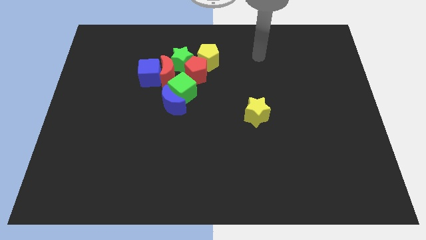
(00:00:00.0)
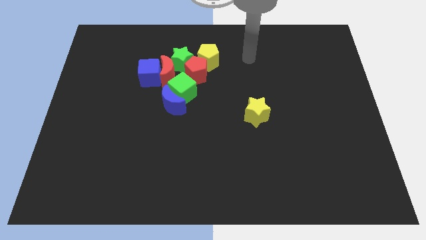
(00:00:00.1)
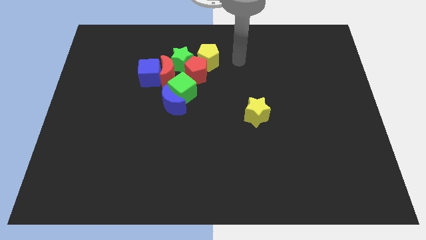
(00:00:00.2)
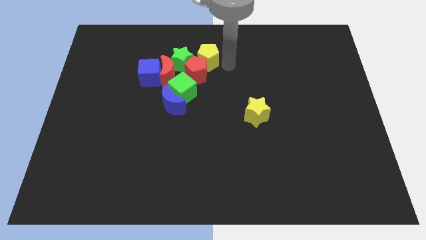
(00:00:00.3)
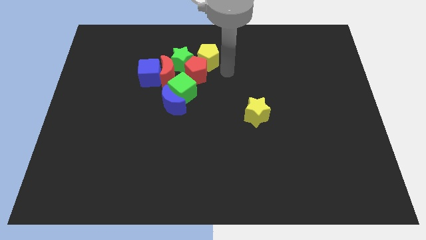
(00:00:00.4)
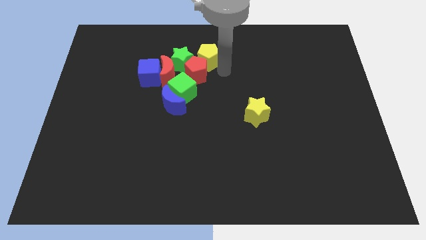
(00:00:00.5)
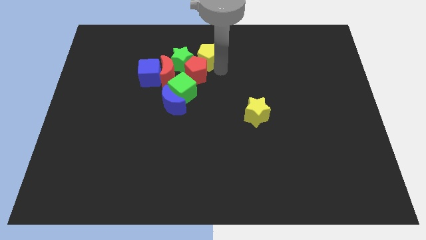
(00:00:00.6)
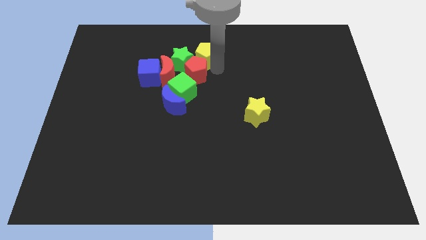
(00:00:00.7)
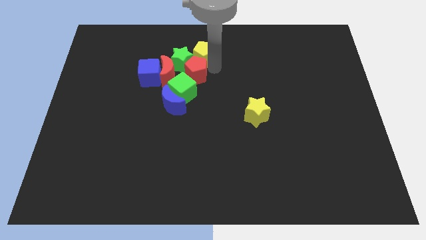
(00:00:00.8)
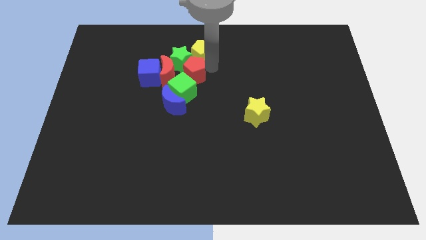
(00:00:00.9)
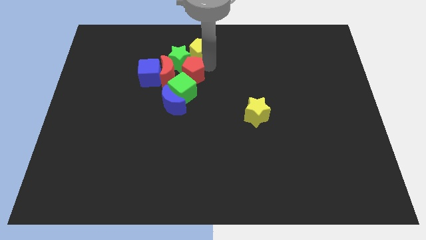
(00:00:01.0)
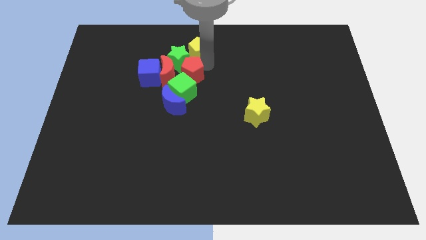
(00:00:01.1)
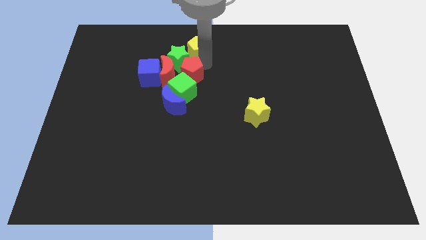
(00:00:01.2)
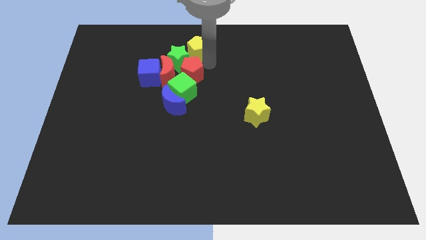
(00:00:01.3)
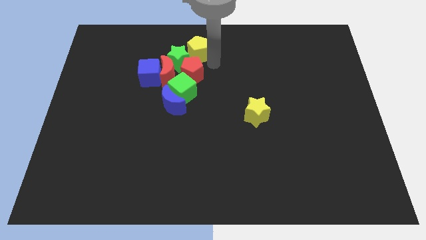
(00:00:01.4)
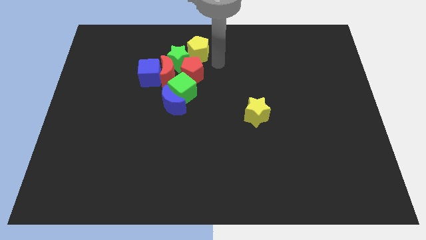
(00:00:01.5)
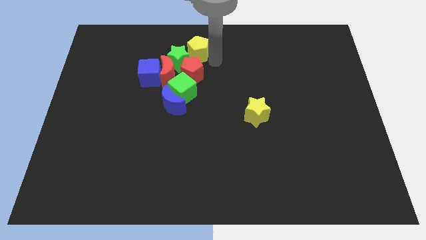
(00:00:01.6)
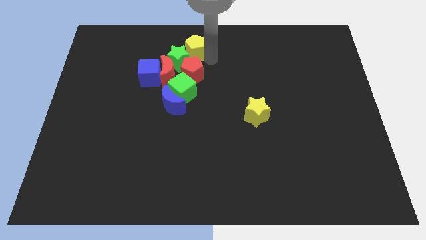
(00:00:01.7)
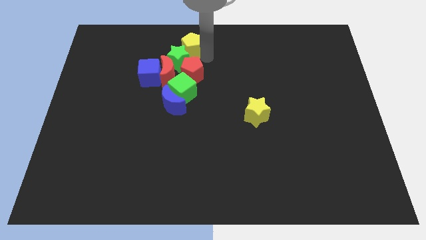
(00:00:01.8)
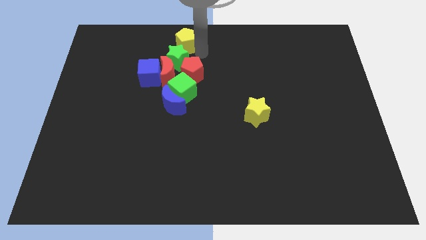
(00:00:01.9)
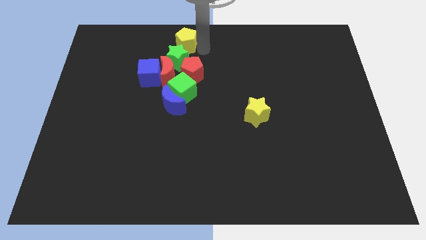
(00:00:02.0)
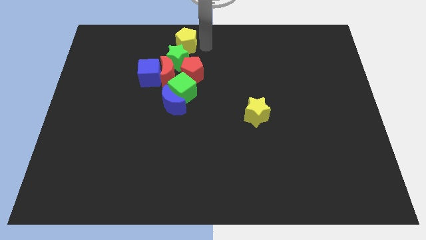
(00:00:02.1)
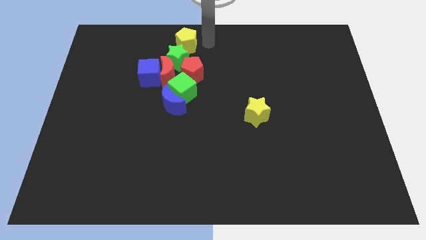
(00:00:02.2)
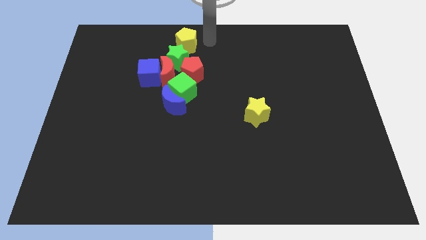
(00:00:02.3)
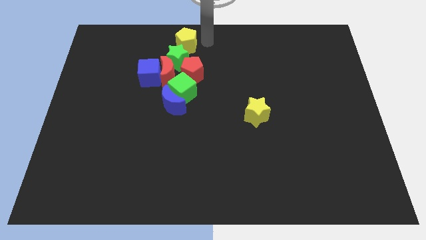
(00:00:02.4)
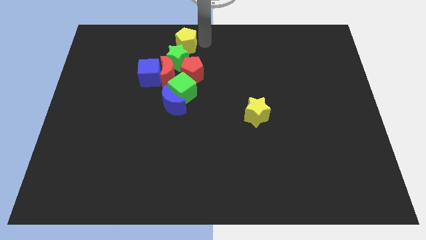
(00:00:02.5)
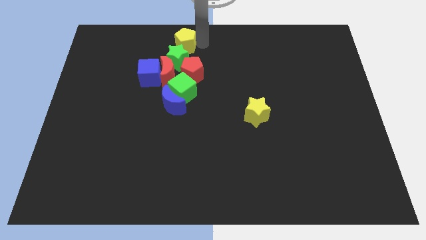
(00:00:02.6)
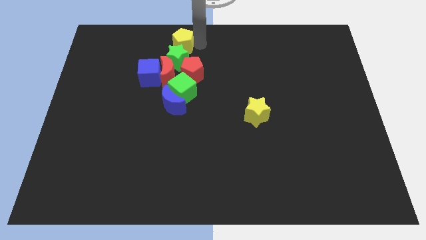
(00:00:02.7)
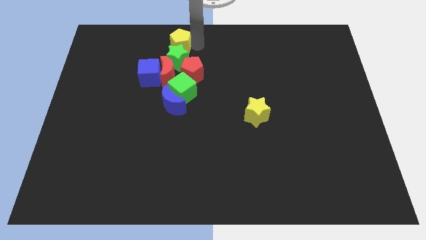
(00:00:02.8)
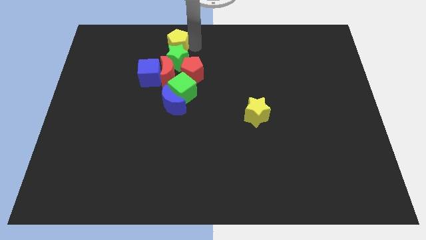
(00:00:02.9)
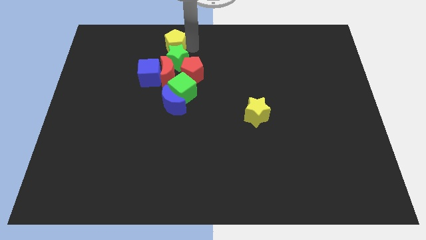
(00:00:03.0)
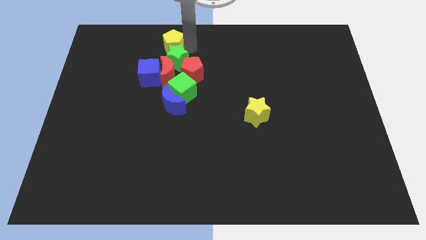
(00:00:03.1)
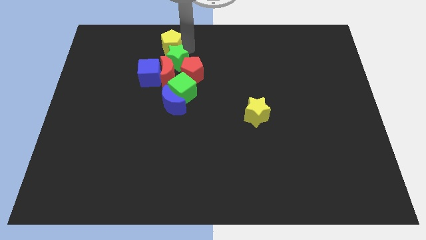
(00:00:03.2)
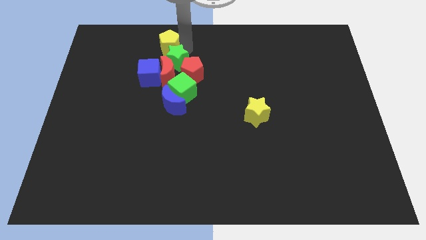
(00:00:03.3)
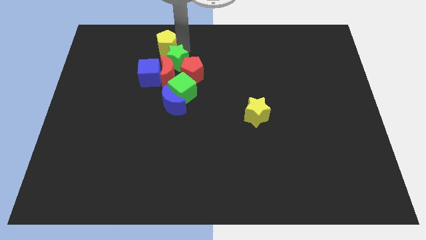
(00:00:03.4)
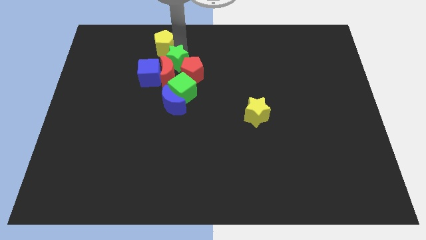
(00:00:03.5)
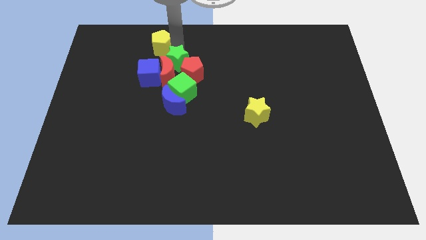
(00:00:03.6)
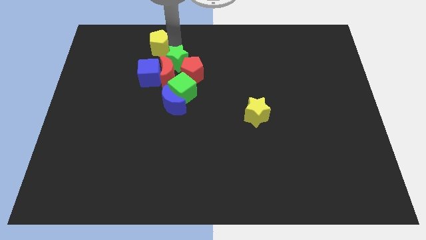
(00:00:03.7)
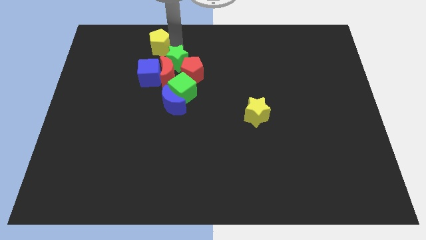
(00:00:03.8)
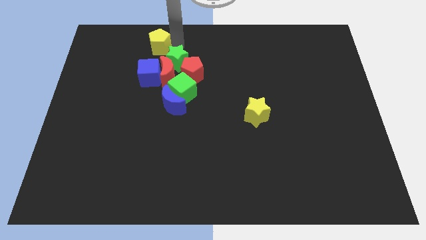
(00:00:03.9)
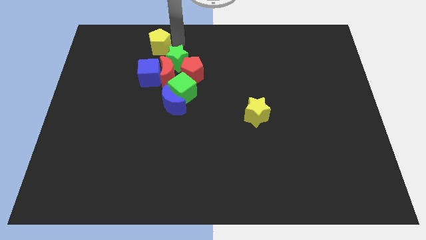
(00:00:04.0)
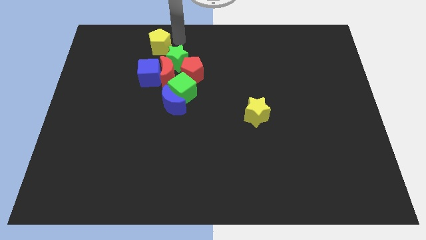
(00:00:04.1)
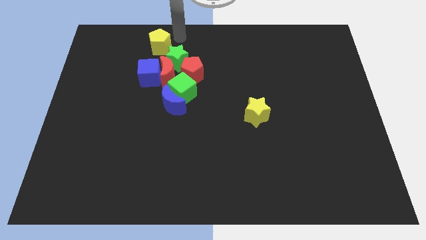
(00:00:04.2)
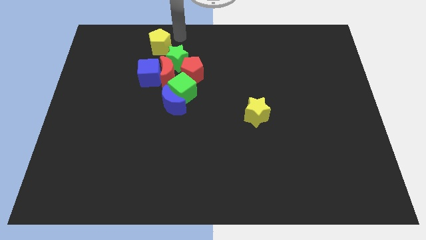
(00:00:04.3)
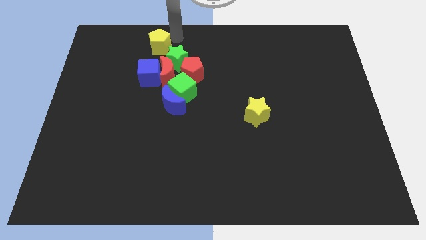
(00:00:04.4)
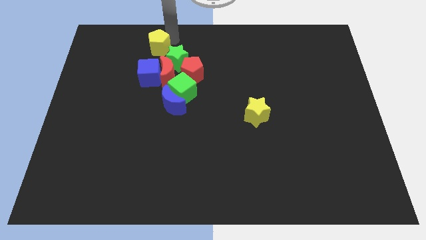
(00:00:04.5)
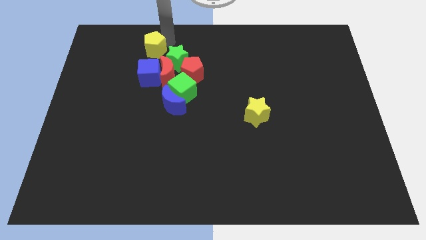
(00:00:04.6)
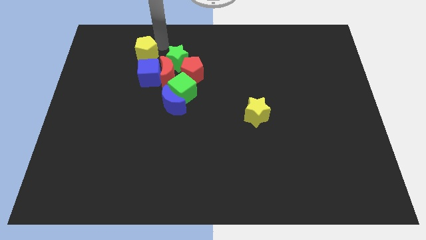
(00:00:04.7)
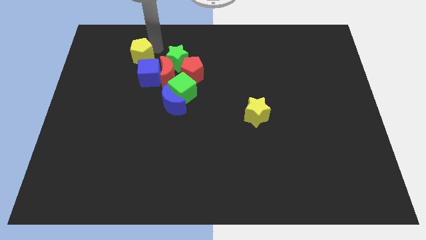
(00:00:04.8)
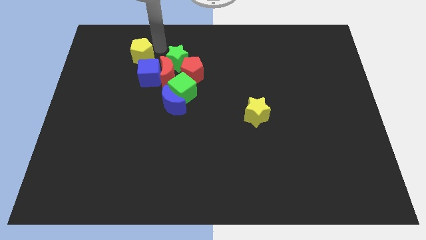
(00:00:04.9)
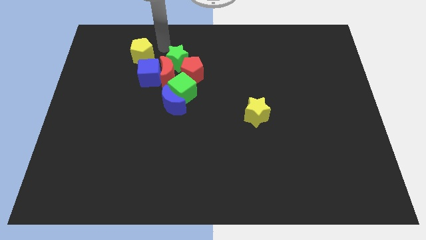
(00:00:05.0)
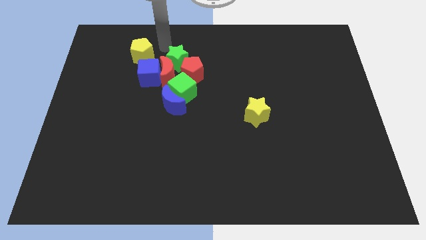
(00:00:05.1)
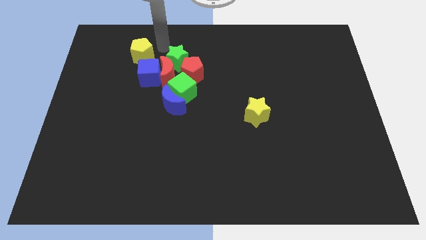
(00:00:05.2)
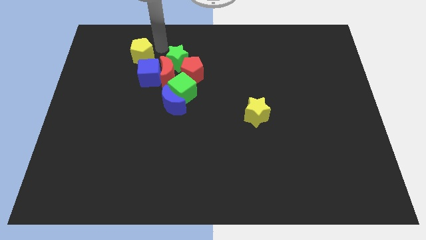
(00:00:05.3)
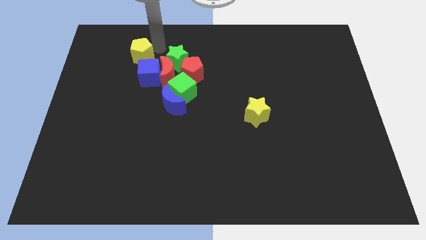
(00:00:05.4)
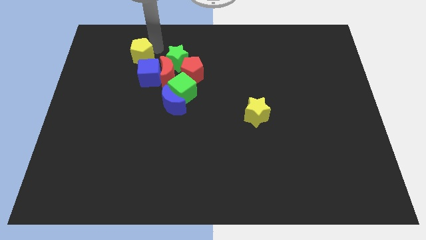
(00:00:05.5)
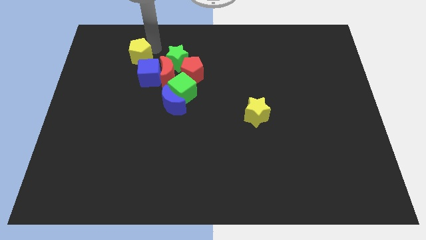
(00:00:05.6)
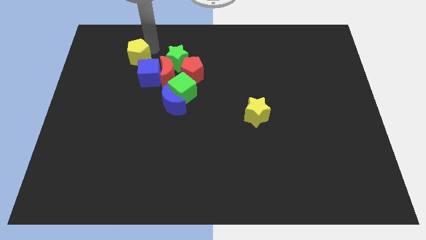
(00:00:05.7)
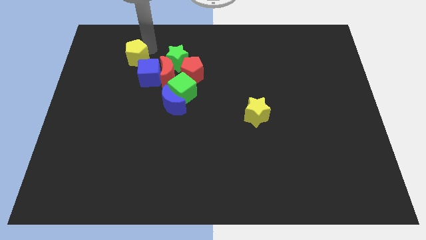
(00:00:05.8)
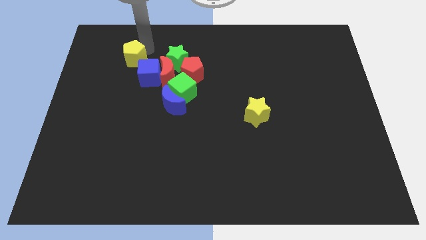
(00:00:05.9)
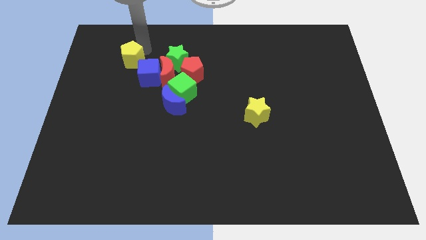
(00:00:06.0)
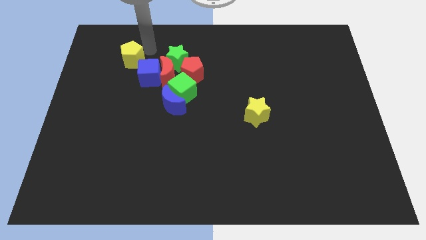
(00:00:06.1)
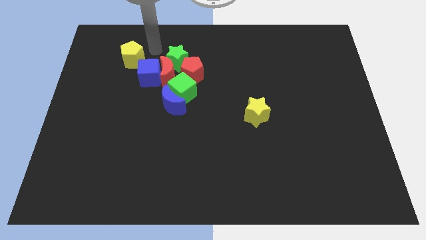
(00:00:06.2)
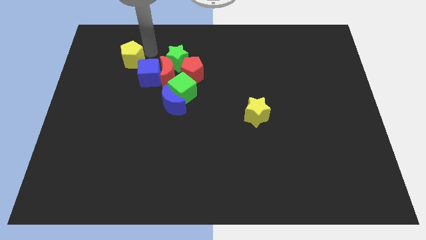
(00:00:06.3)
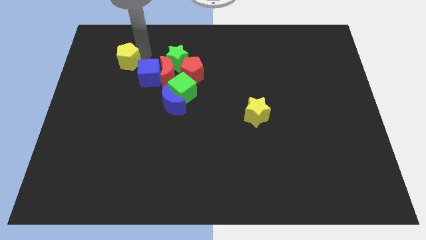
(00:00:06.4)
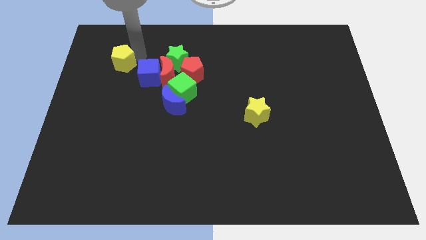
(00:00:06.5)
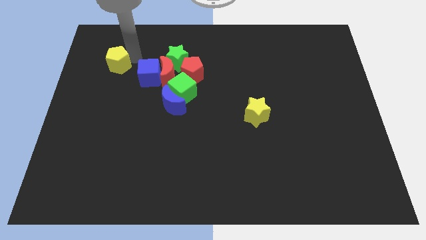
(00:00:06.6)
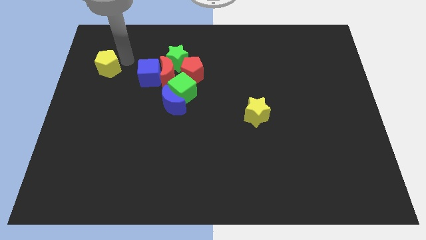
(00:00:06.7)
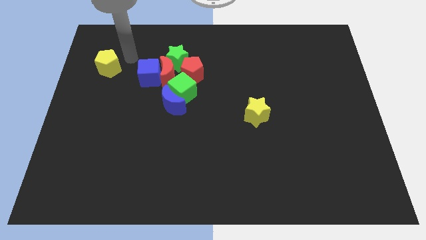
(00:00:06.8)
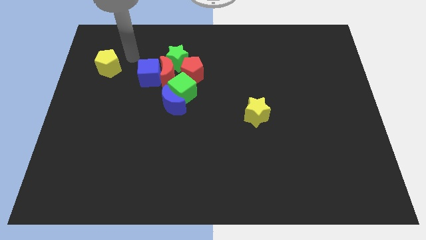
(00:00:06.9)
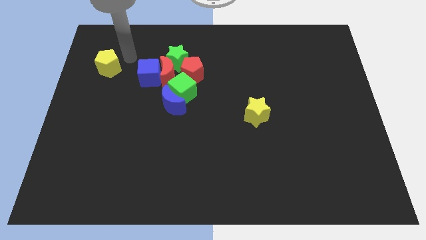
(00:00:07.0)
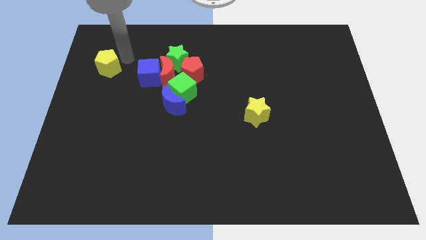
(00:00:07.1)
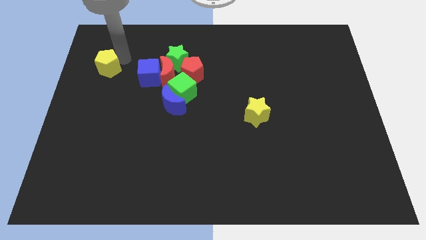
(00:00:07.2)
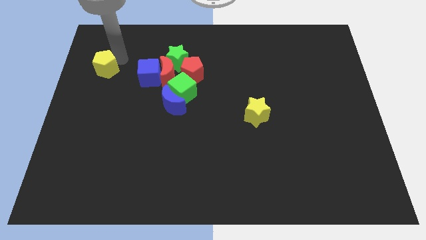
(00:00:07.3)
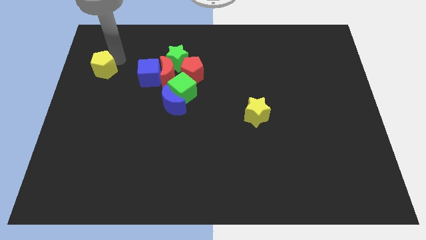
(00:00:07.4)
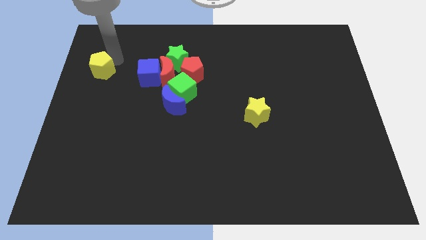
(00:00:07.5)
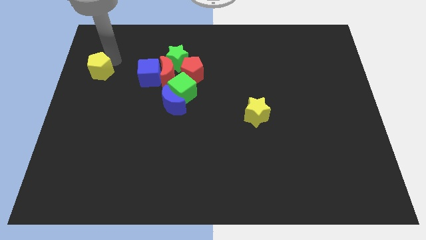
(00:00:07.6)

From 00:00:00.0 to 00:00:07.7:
put the yellow pentagon to the center left
